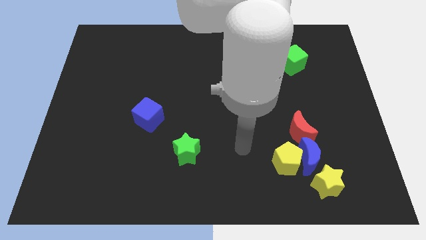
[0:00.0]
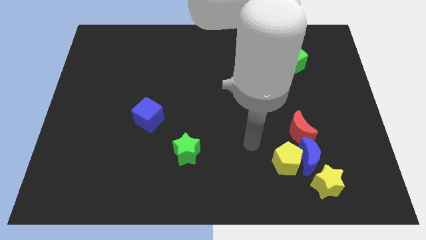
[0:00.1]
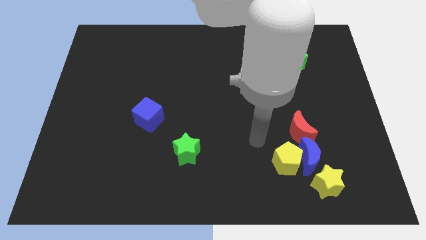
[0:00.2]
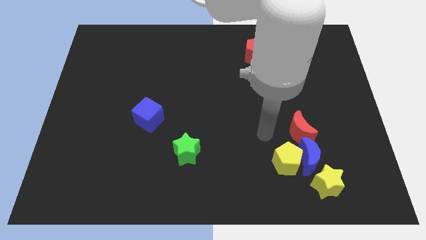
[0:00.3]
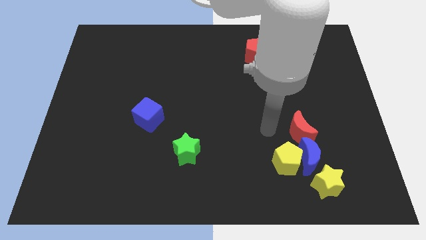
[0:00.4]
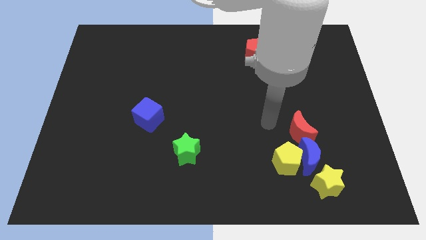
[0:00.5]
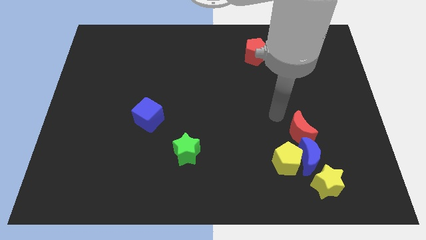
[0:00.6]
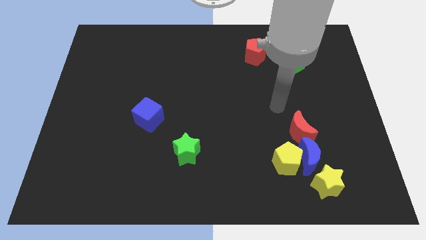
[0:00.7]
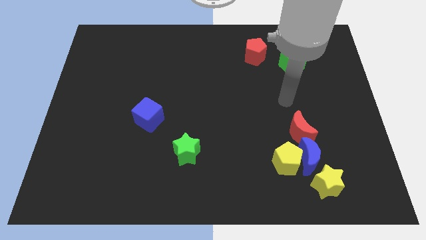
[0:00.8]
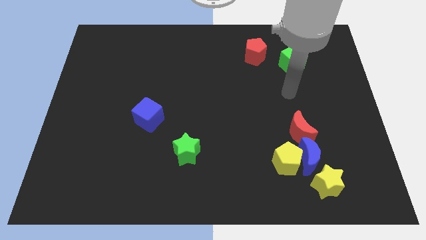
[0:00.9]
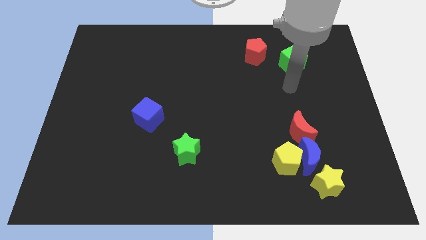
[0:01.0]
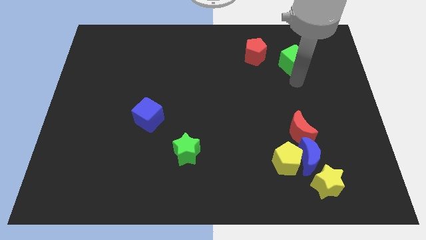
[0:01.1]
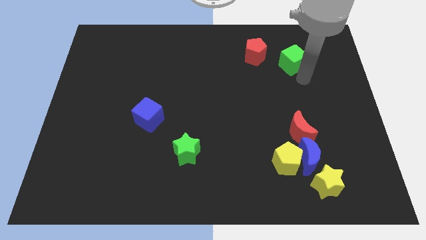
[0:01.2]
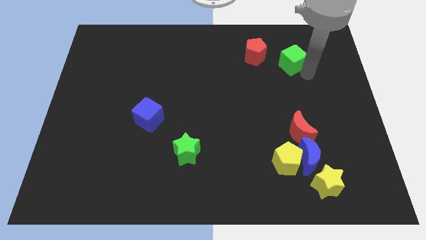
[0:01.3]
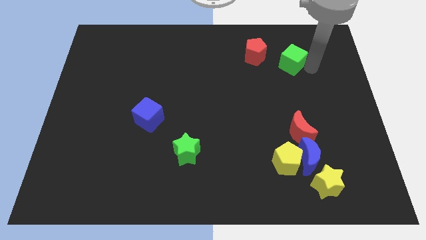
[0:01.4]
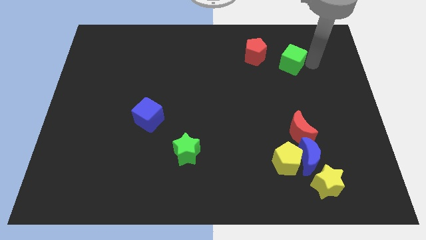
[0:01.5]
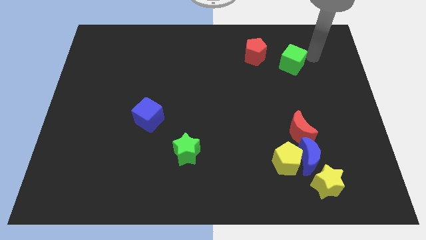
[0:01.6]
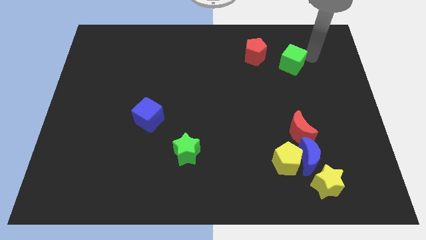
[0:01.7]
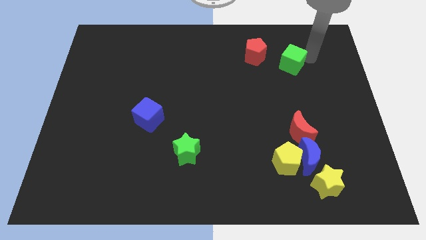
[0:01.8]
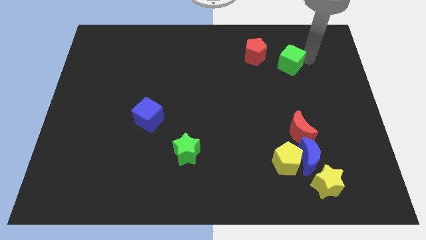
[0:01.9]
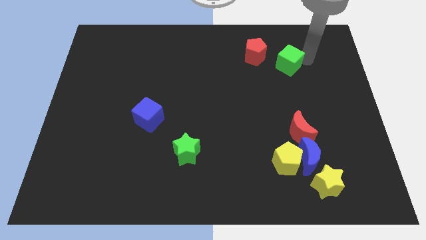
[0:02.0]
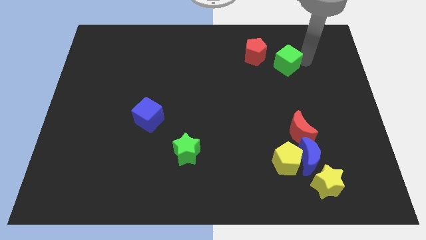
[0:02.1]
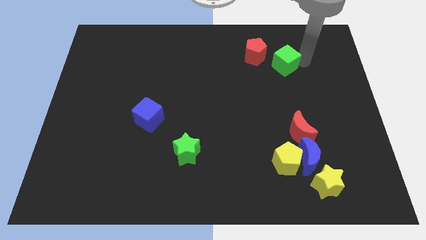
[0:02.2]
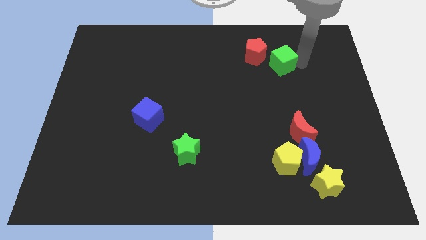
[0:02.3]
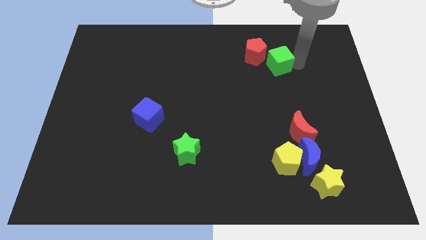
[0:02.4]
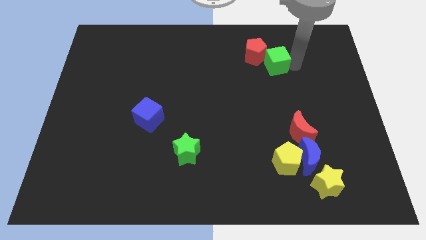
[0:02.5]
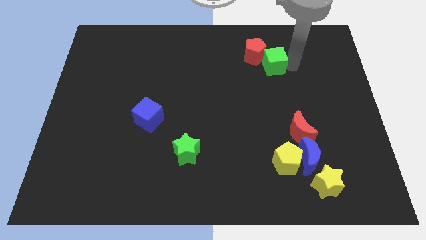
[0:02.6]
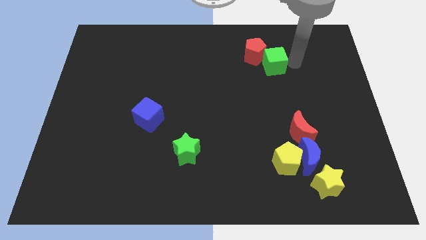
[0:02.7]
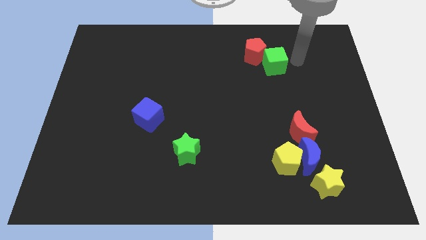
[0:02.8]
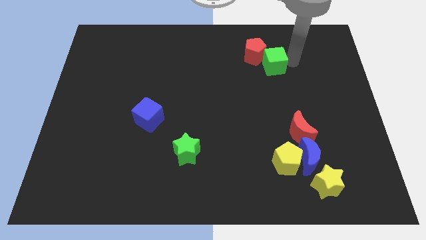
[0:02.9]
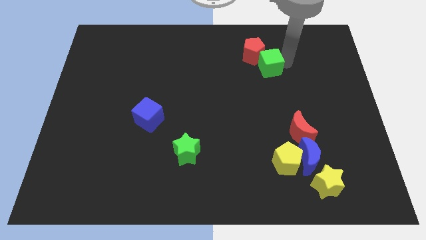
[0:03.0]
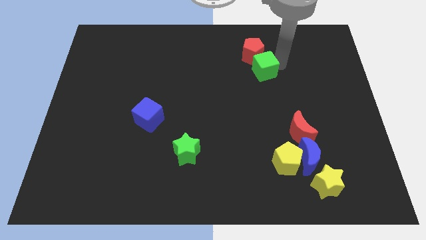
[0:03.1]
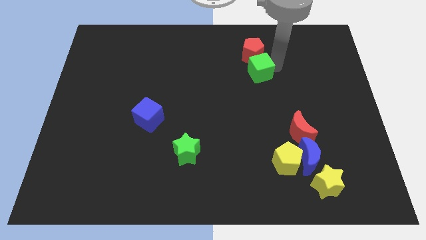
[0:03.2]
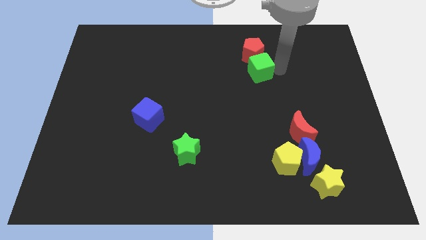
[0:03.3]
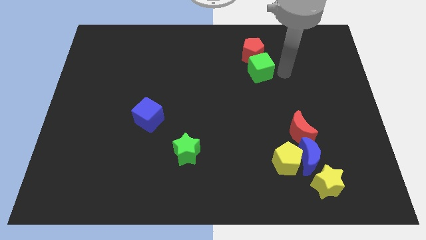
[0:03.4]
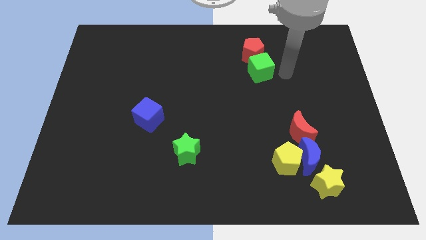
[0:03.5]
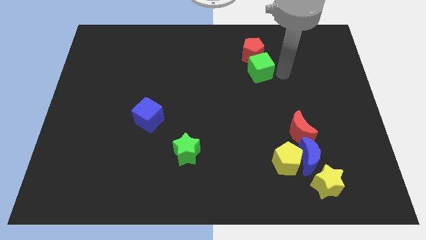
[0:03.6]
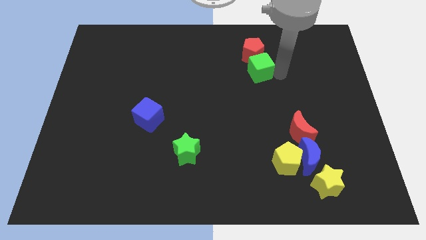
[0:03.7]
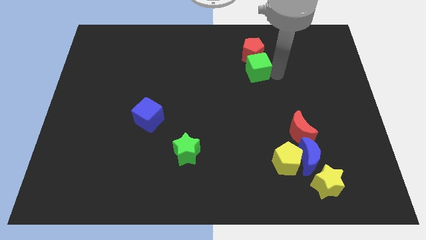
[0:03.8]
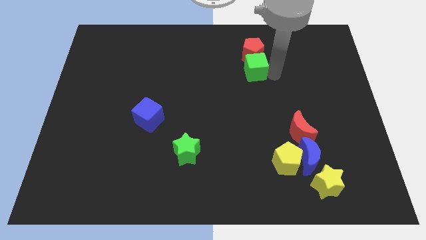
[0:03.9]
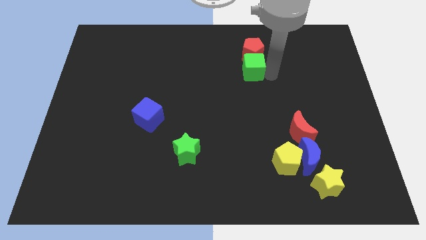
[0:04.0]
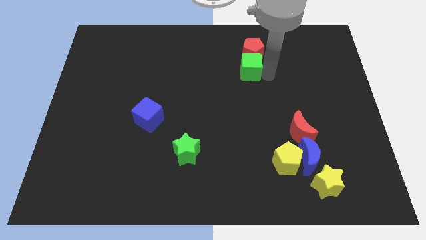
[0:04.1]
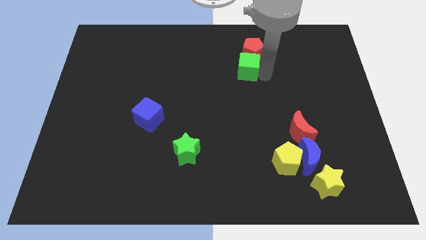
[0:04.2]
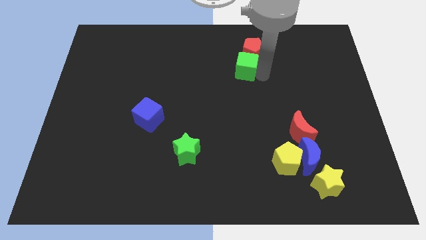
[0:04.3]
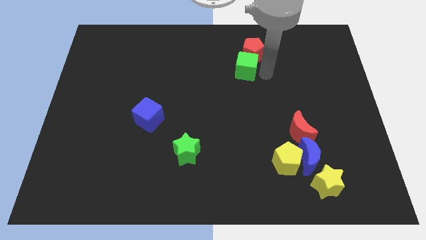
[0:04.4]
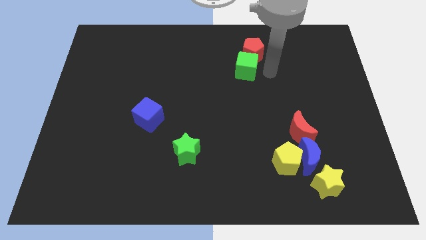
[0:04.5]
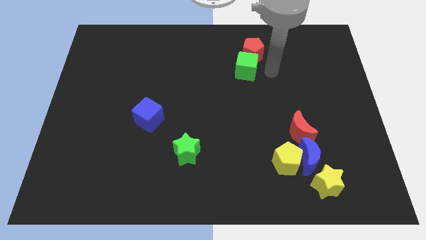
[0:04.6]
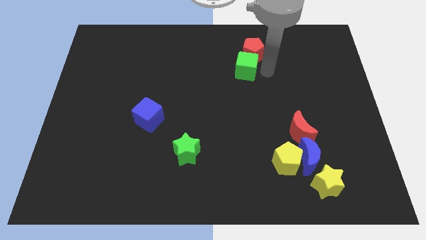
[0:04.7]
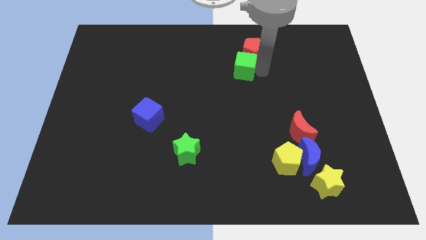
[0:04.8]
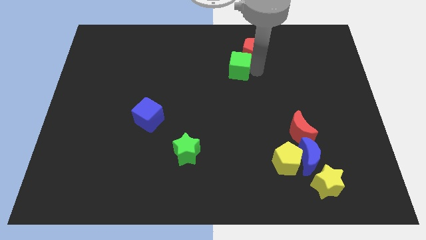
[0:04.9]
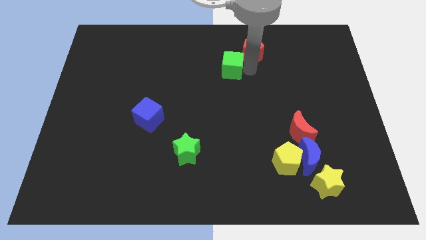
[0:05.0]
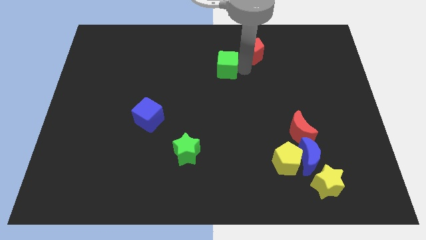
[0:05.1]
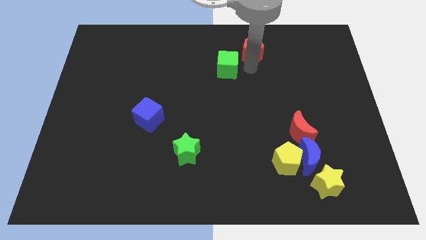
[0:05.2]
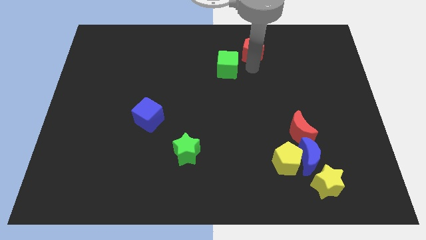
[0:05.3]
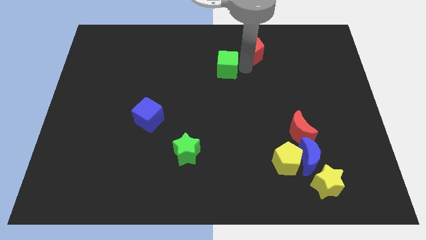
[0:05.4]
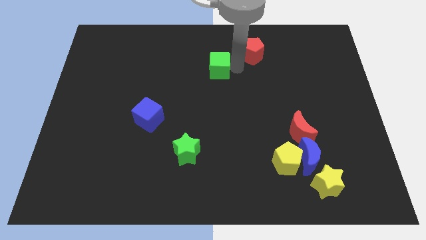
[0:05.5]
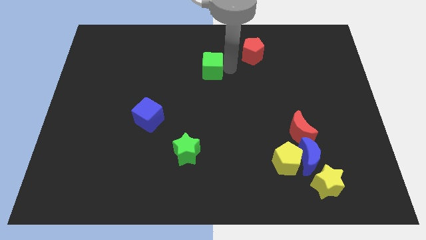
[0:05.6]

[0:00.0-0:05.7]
push the green cube to the left

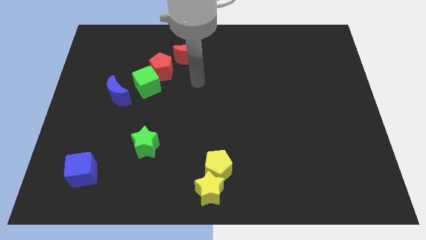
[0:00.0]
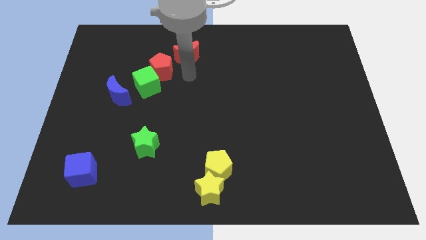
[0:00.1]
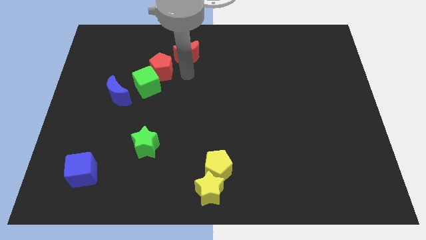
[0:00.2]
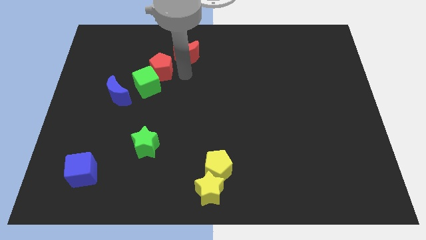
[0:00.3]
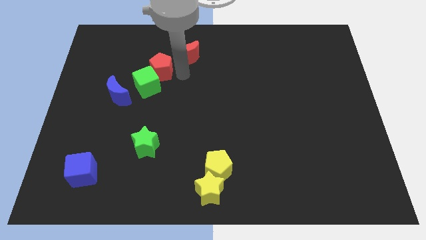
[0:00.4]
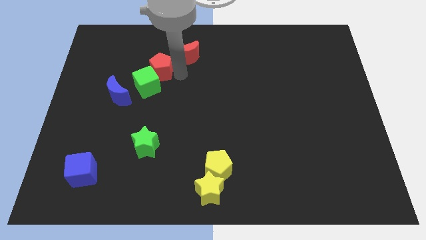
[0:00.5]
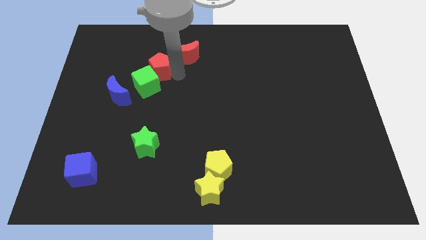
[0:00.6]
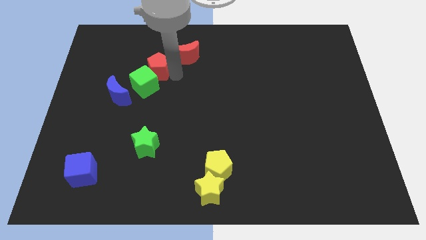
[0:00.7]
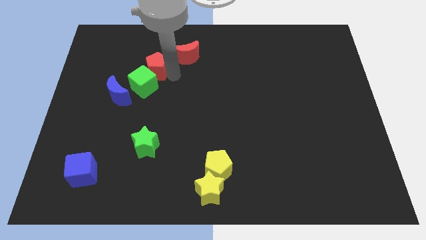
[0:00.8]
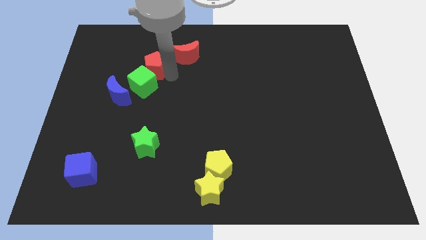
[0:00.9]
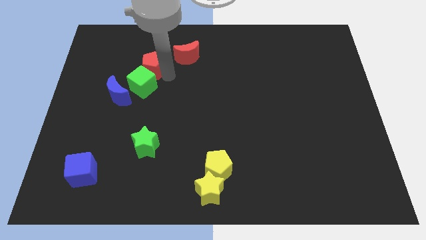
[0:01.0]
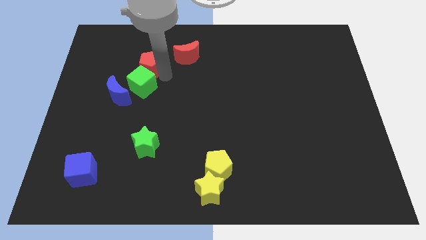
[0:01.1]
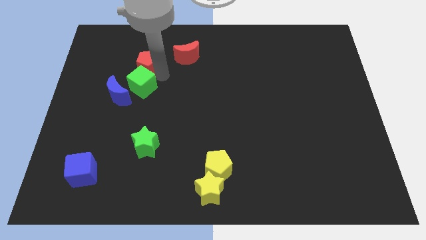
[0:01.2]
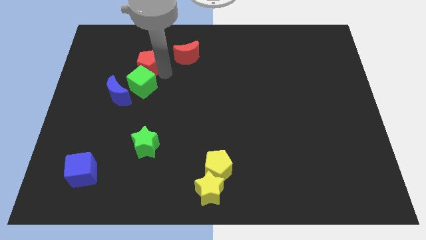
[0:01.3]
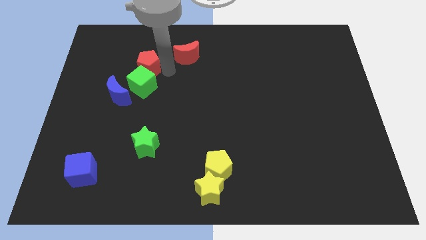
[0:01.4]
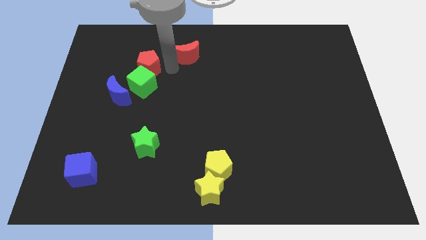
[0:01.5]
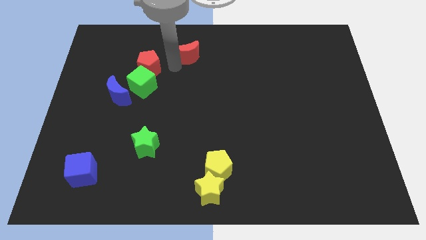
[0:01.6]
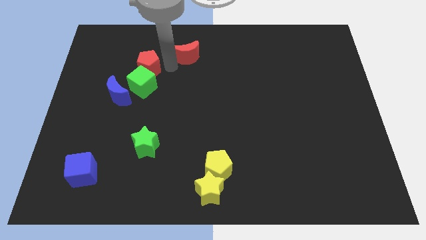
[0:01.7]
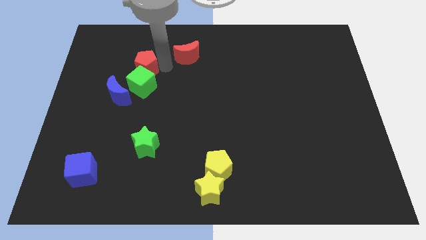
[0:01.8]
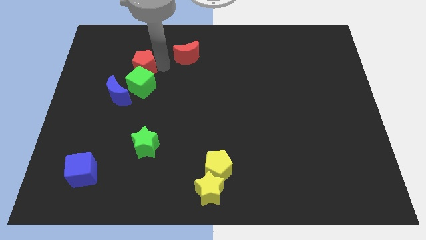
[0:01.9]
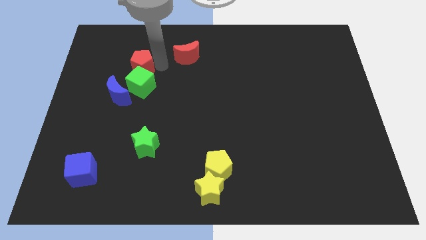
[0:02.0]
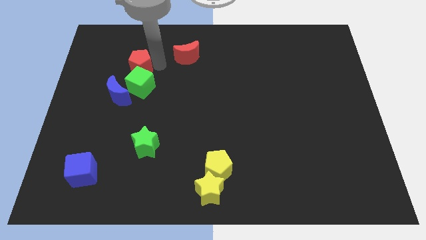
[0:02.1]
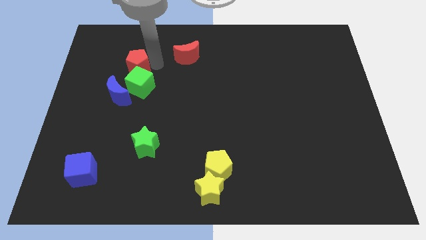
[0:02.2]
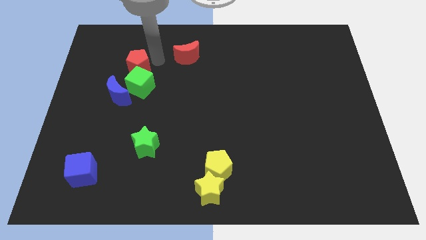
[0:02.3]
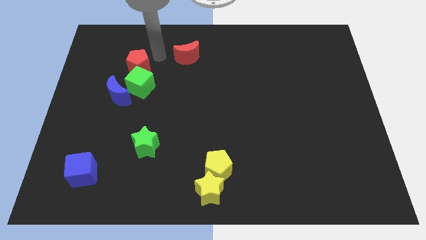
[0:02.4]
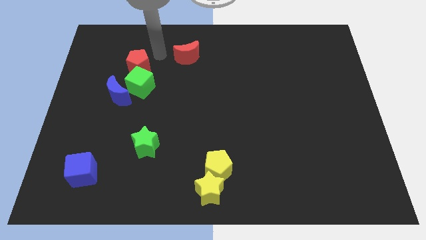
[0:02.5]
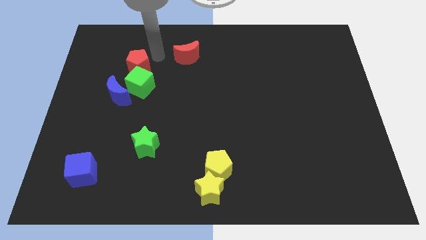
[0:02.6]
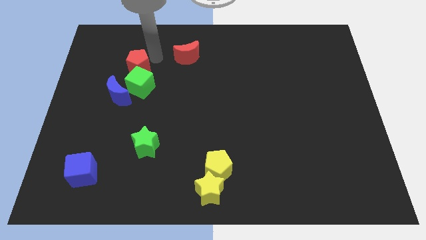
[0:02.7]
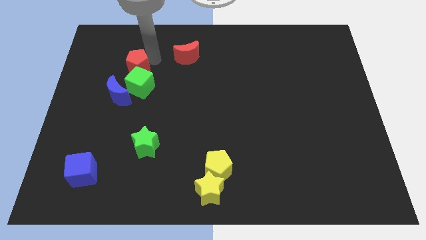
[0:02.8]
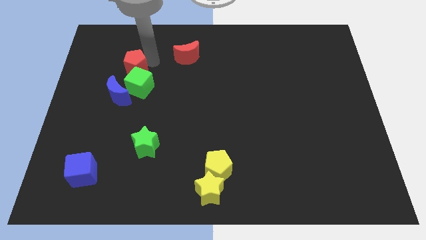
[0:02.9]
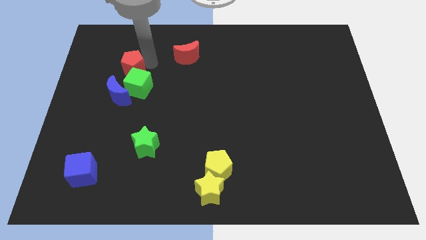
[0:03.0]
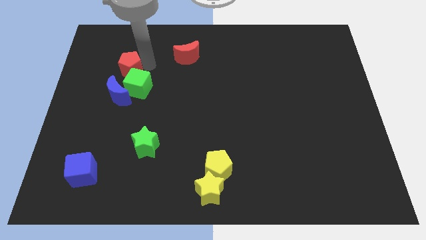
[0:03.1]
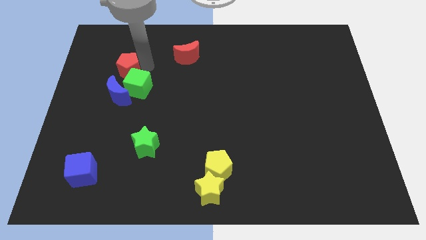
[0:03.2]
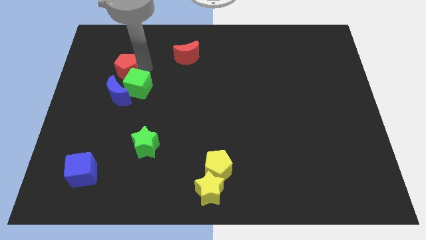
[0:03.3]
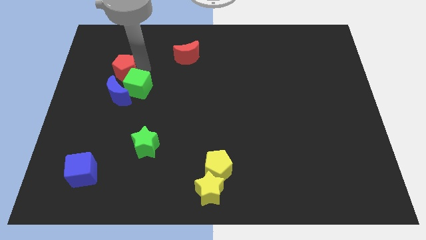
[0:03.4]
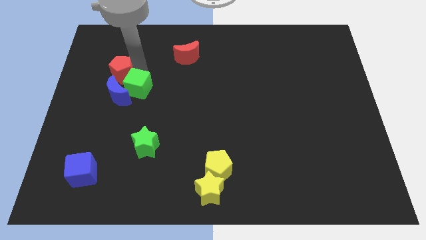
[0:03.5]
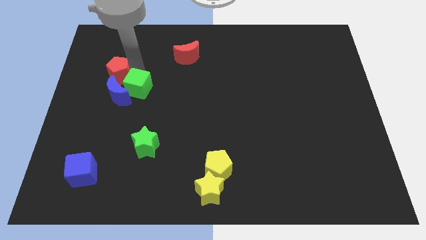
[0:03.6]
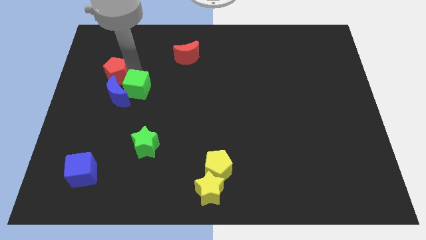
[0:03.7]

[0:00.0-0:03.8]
slightly slide the red pentagon downwards and to the left diagonally
